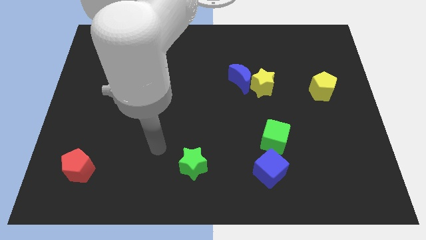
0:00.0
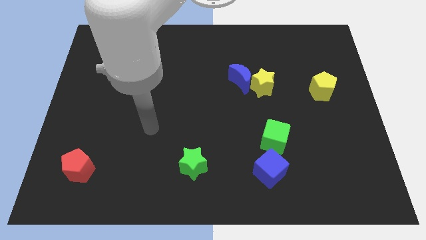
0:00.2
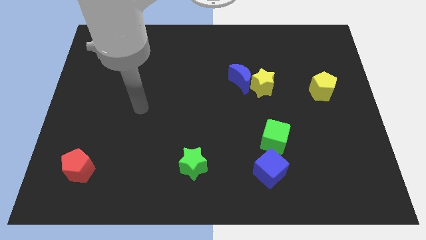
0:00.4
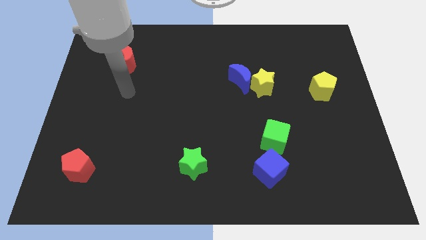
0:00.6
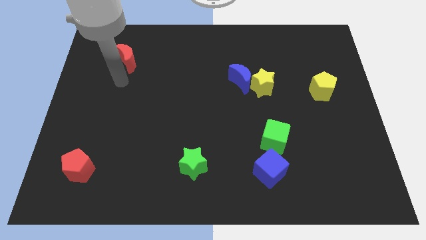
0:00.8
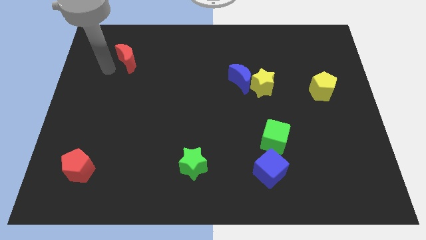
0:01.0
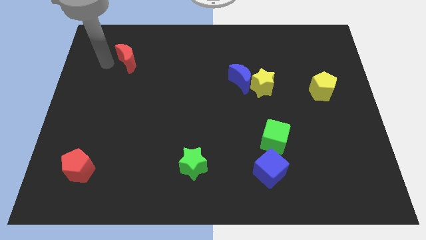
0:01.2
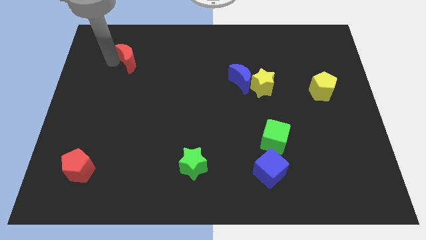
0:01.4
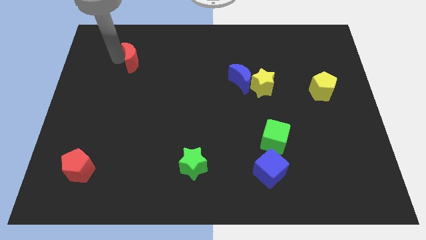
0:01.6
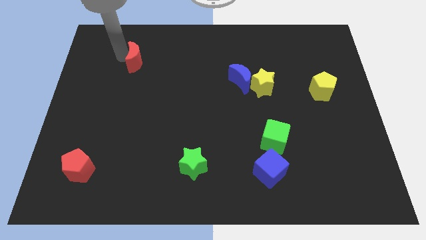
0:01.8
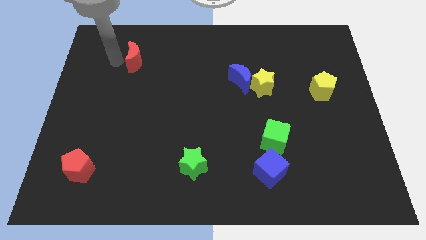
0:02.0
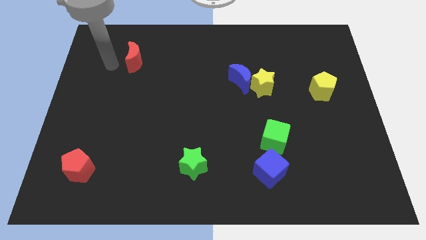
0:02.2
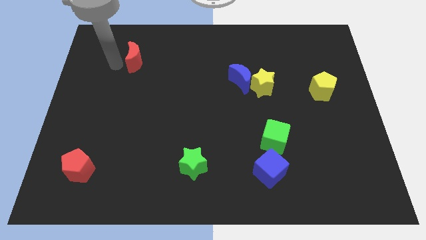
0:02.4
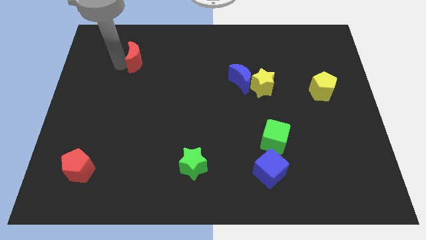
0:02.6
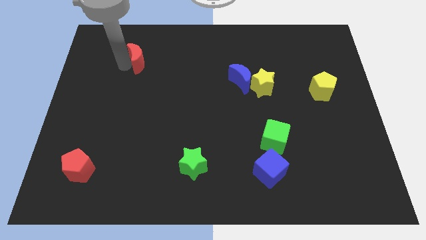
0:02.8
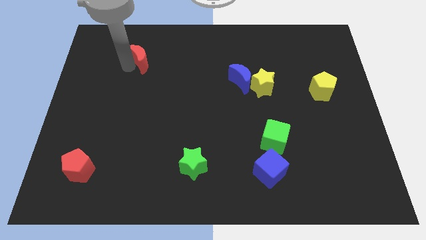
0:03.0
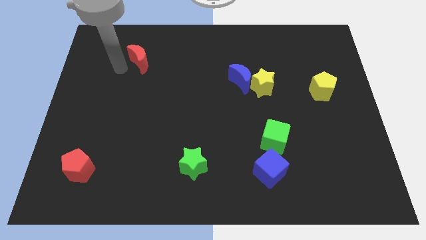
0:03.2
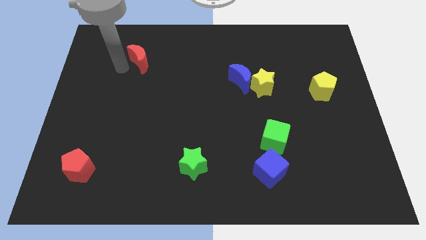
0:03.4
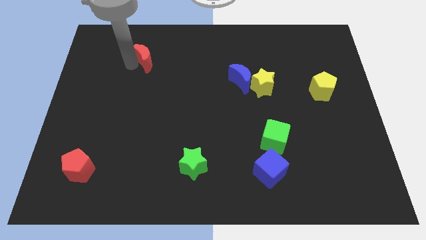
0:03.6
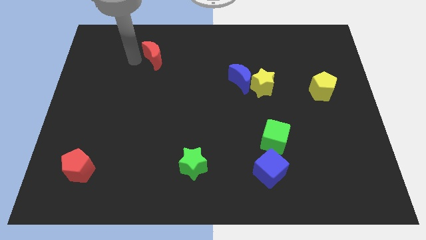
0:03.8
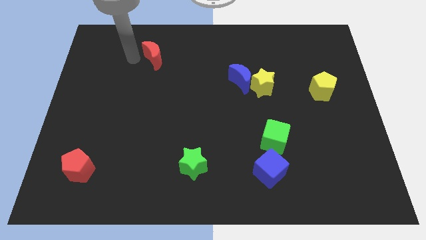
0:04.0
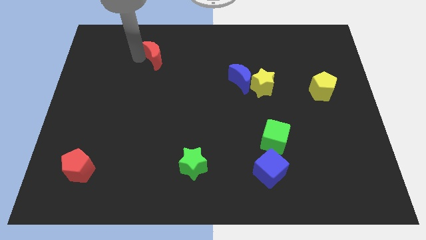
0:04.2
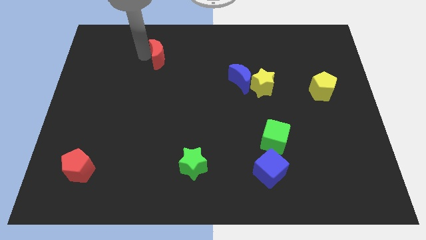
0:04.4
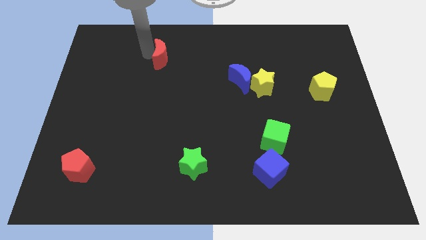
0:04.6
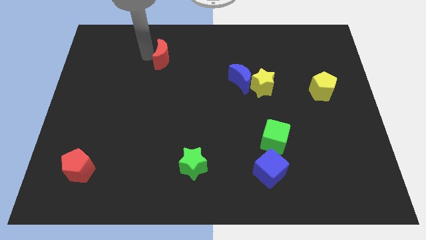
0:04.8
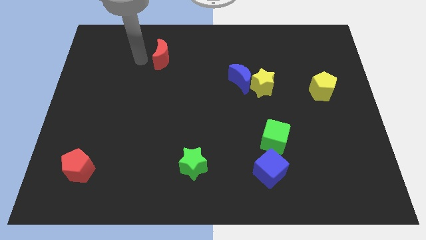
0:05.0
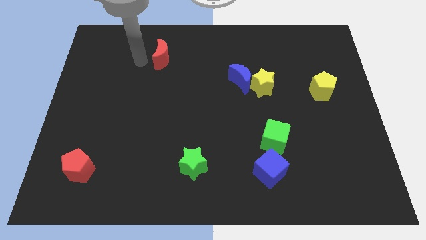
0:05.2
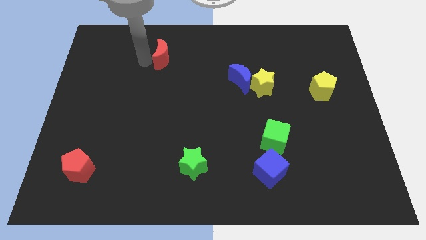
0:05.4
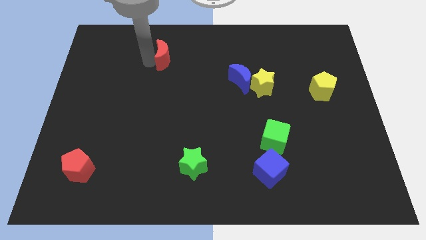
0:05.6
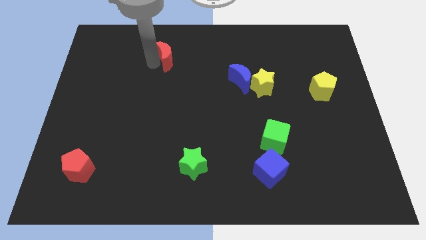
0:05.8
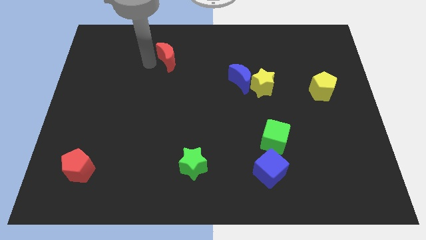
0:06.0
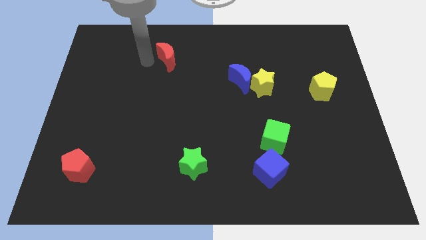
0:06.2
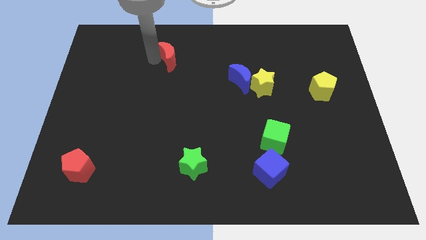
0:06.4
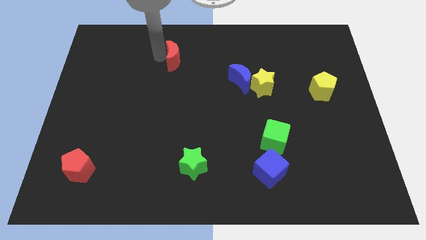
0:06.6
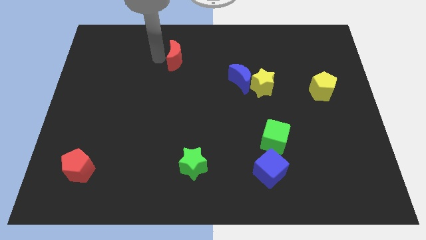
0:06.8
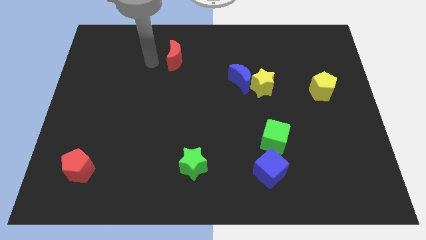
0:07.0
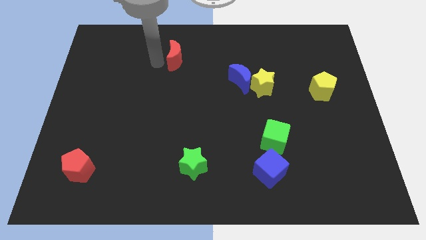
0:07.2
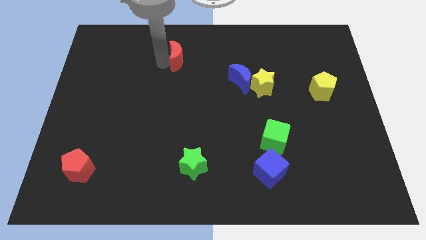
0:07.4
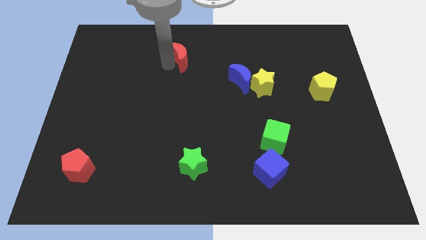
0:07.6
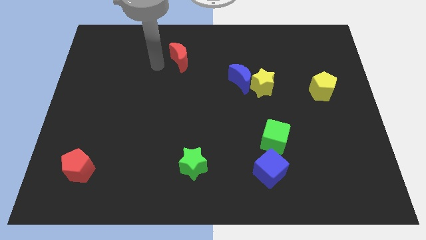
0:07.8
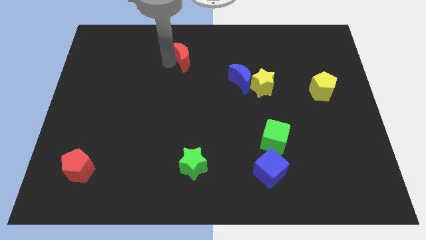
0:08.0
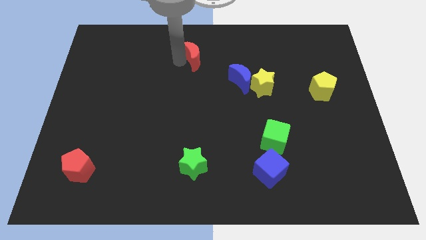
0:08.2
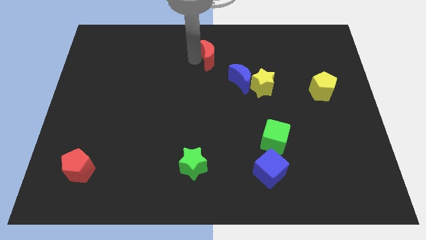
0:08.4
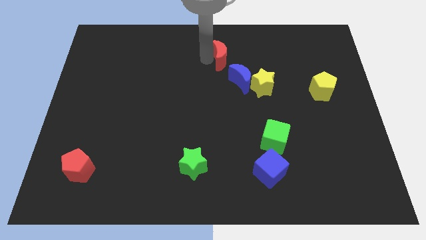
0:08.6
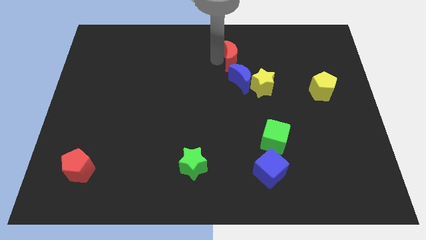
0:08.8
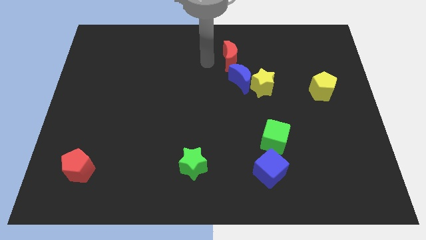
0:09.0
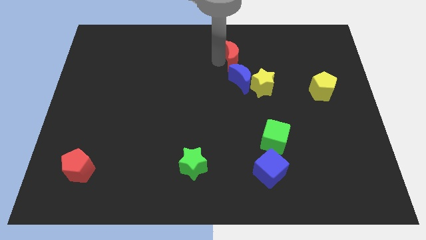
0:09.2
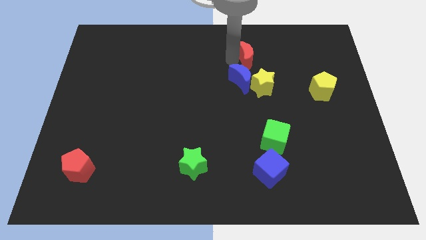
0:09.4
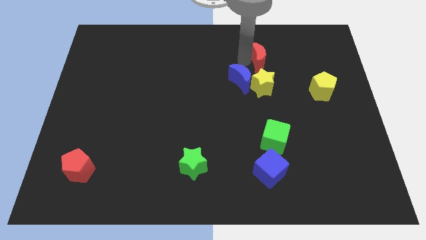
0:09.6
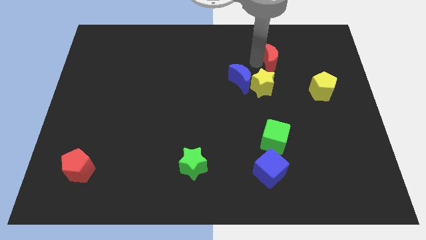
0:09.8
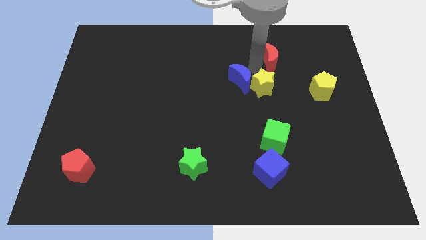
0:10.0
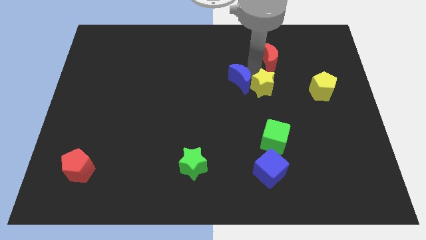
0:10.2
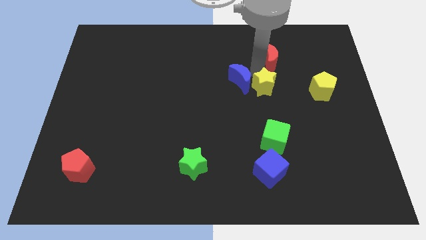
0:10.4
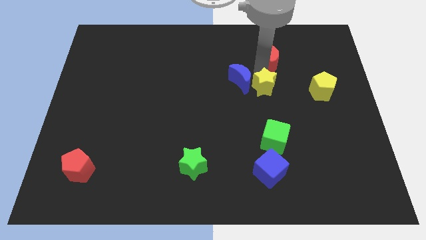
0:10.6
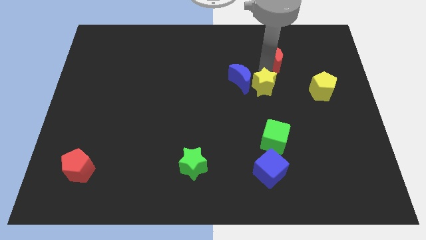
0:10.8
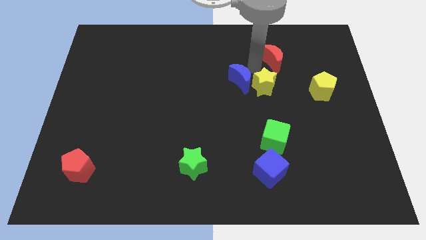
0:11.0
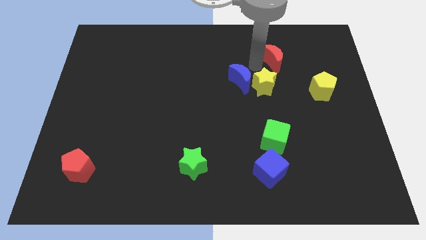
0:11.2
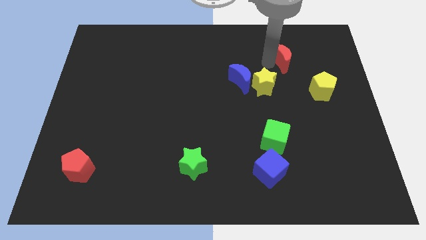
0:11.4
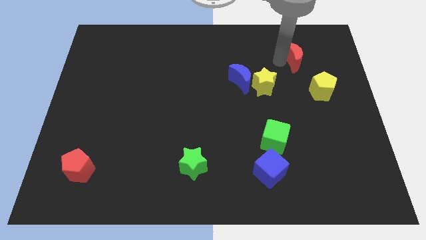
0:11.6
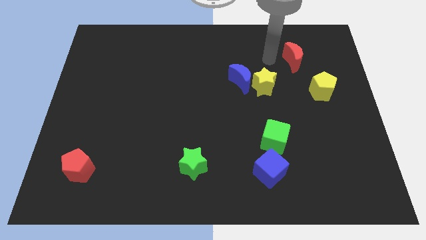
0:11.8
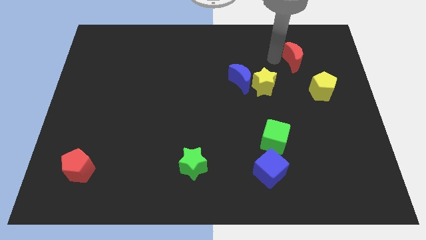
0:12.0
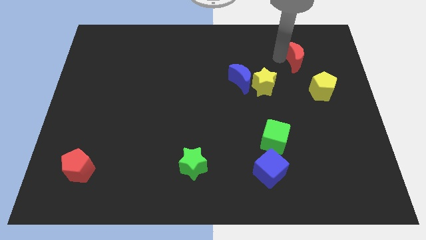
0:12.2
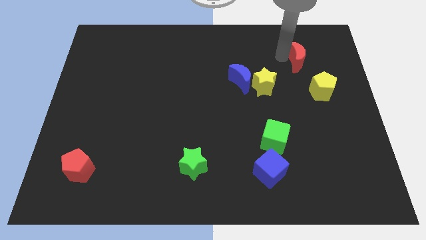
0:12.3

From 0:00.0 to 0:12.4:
move the red moon to the top of the yellow pentagon

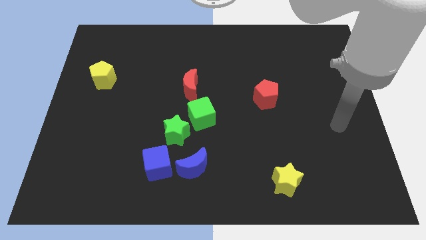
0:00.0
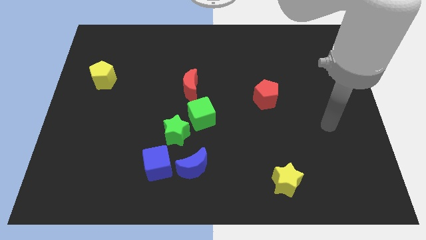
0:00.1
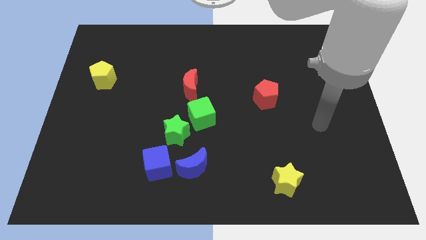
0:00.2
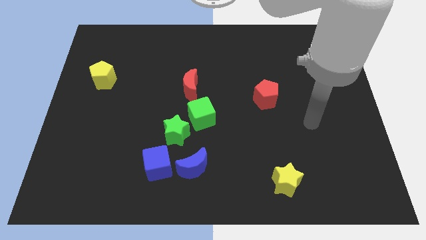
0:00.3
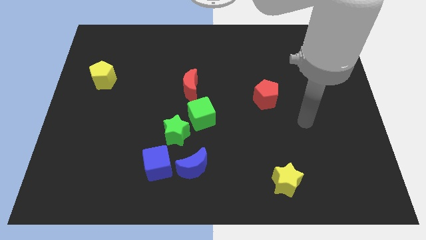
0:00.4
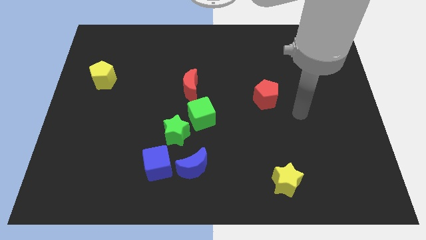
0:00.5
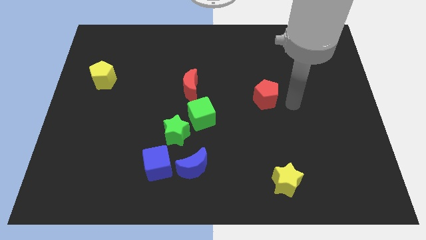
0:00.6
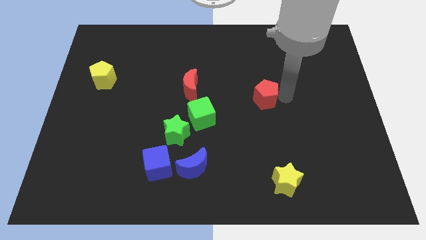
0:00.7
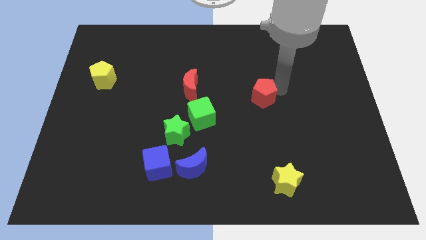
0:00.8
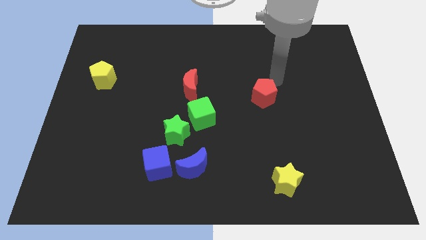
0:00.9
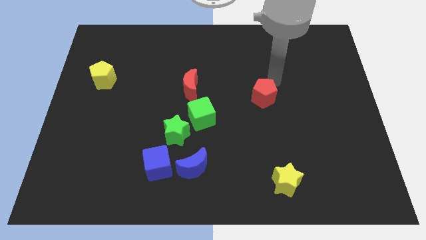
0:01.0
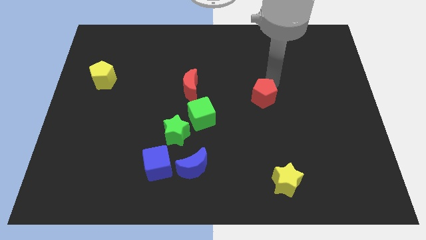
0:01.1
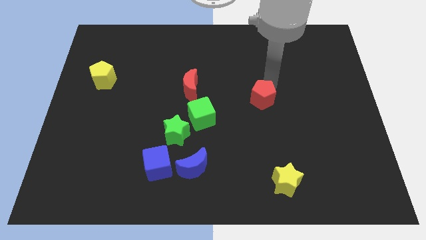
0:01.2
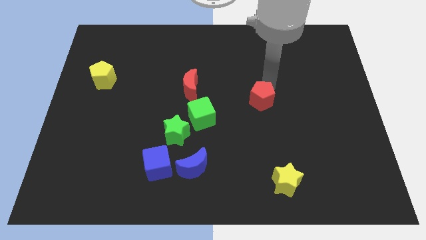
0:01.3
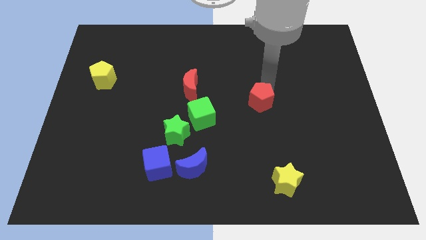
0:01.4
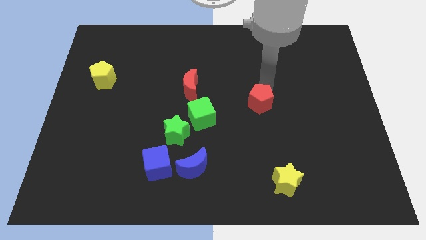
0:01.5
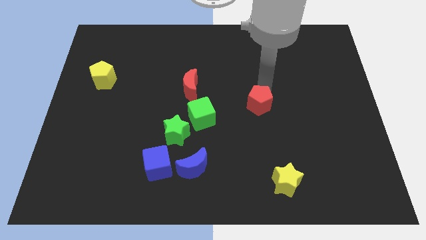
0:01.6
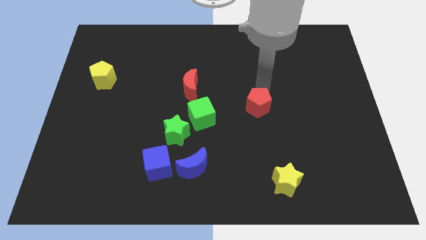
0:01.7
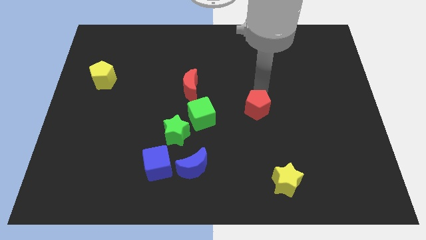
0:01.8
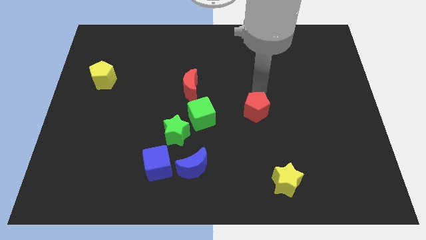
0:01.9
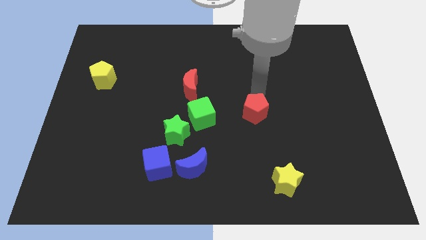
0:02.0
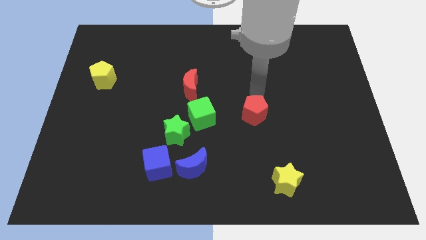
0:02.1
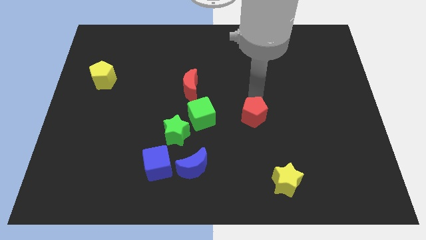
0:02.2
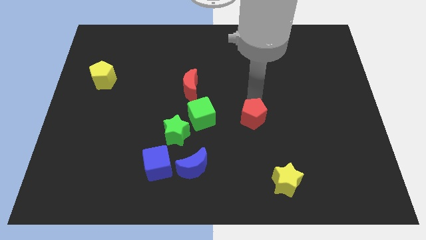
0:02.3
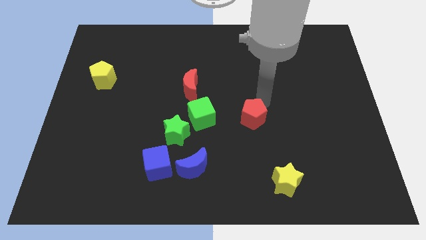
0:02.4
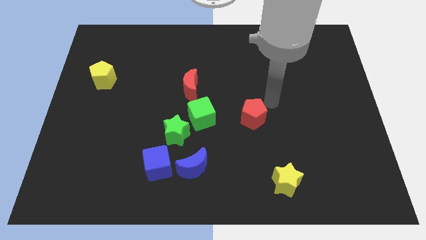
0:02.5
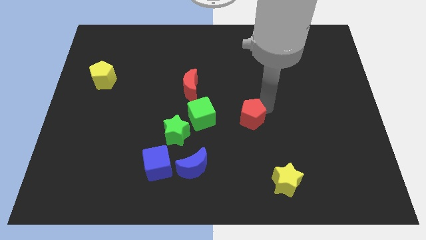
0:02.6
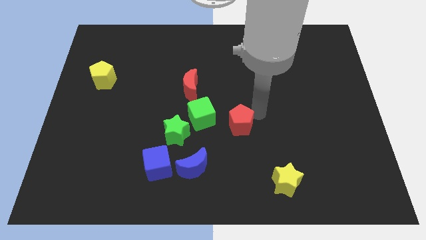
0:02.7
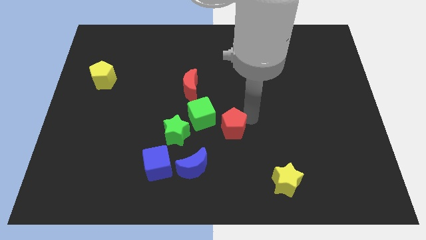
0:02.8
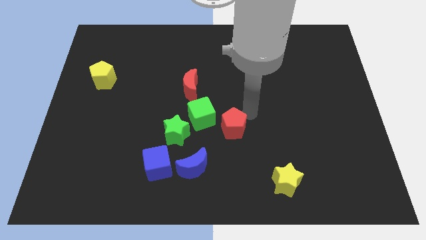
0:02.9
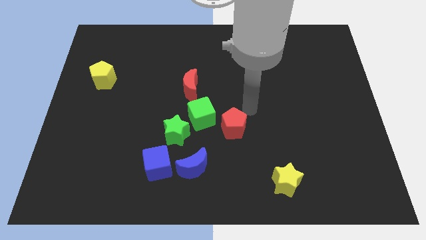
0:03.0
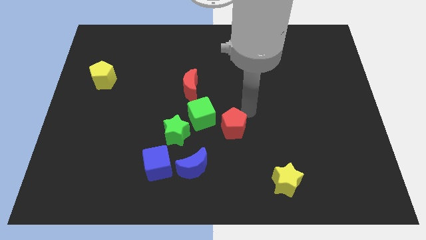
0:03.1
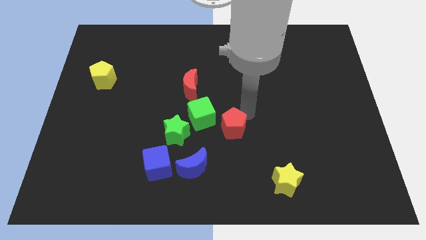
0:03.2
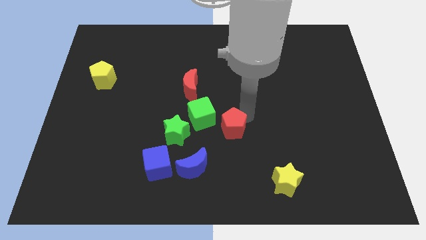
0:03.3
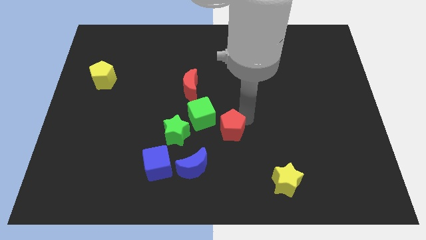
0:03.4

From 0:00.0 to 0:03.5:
push the red pentagon diagonally up and to the right of the blue moon
